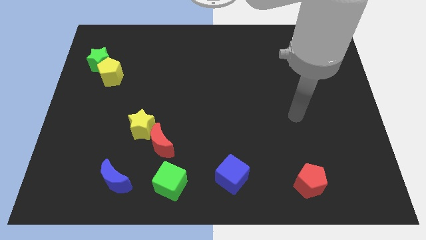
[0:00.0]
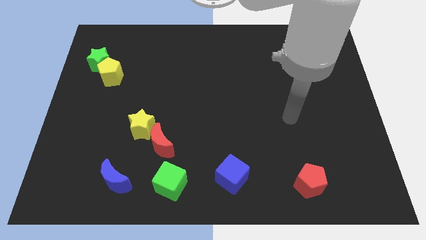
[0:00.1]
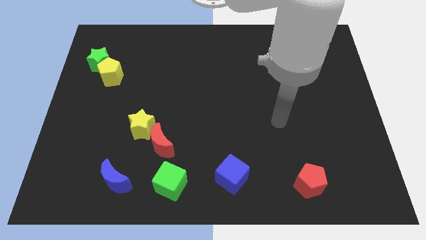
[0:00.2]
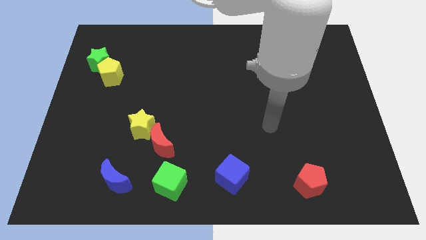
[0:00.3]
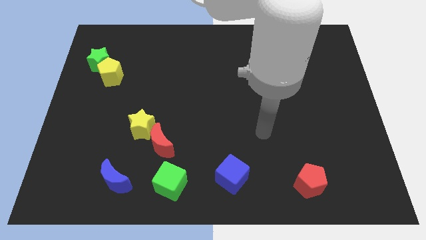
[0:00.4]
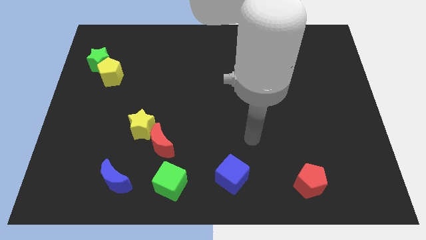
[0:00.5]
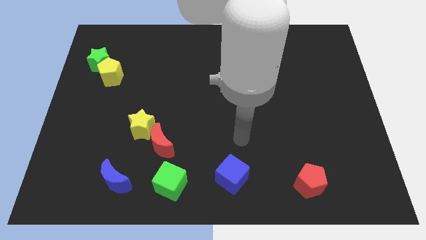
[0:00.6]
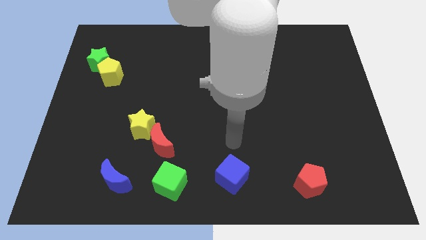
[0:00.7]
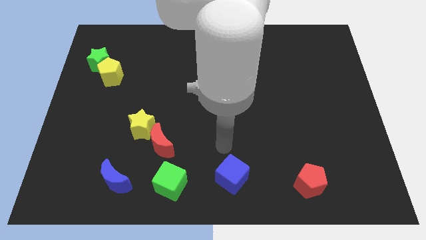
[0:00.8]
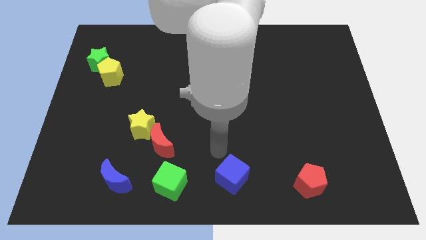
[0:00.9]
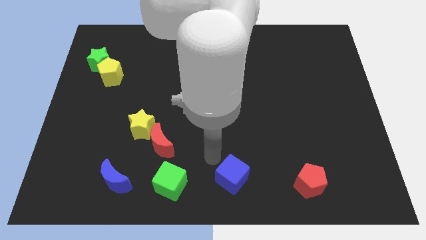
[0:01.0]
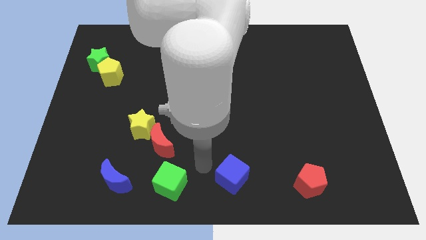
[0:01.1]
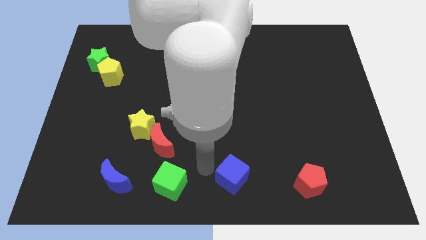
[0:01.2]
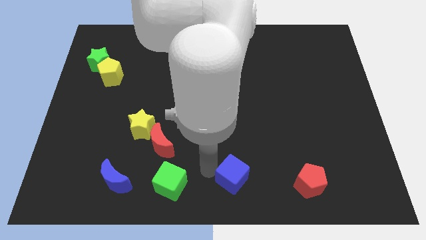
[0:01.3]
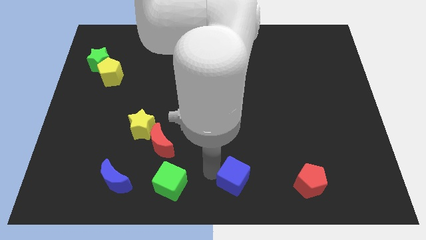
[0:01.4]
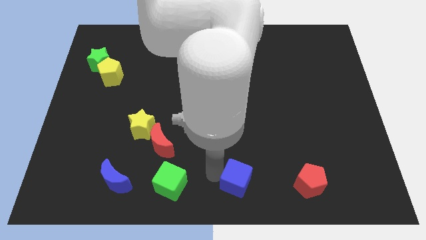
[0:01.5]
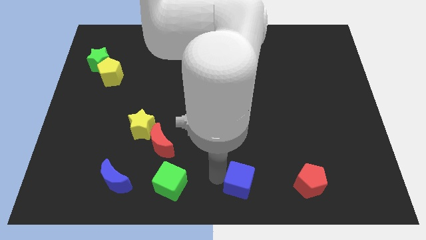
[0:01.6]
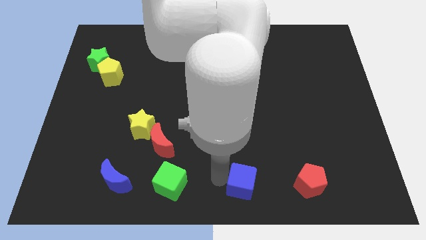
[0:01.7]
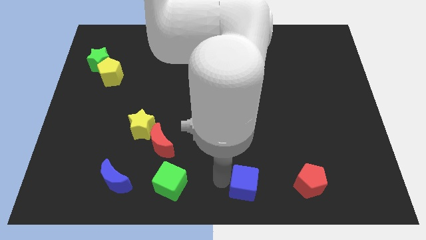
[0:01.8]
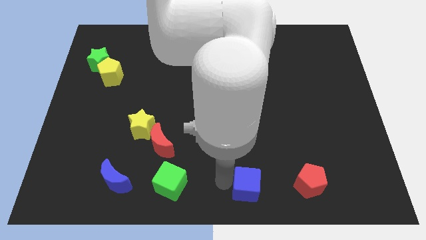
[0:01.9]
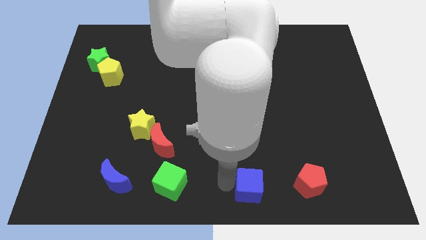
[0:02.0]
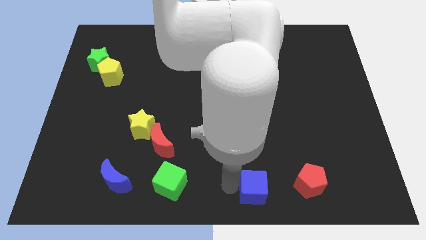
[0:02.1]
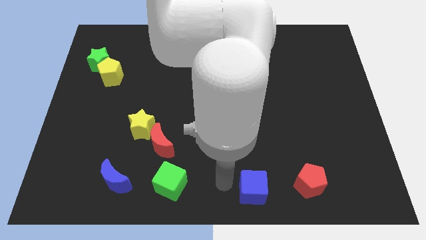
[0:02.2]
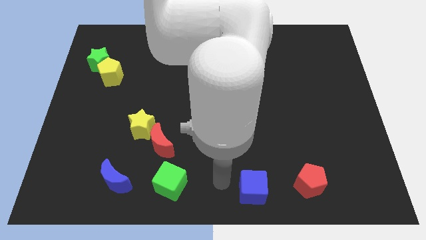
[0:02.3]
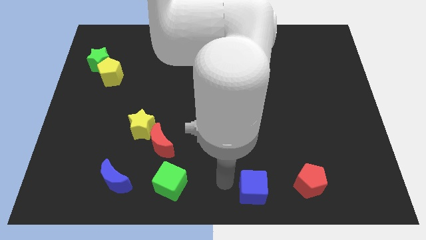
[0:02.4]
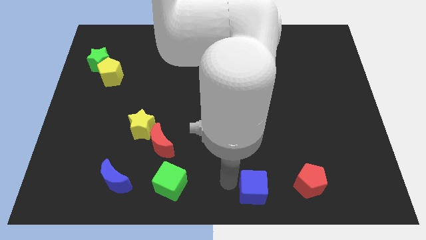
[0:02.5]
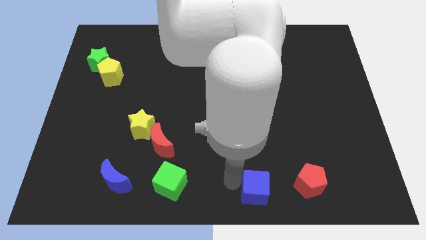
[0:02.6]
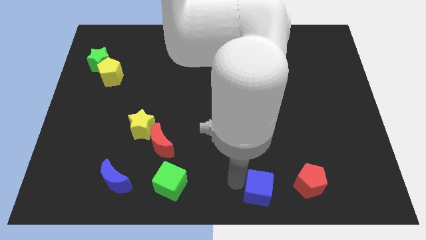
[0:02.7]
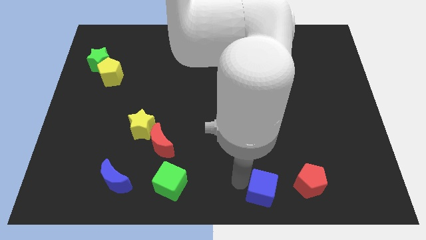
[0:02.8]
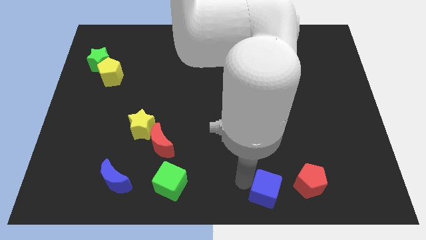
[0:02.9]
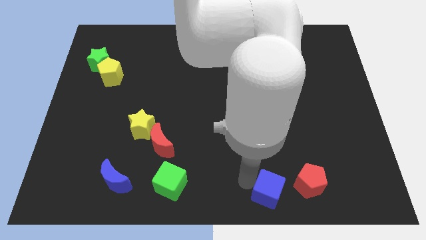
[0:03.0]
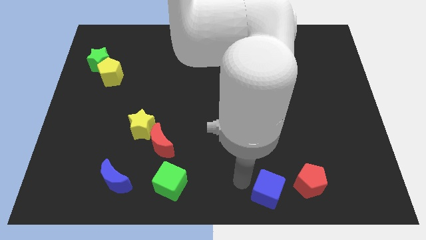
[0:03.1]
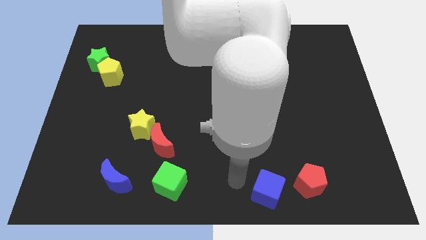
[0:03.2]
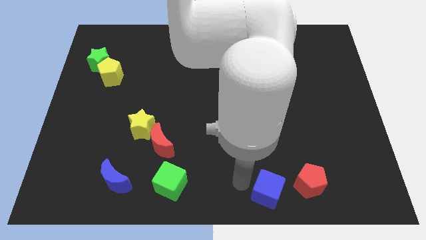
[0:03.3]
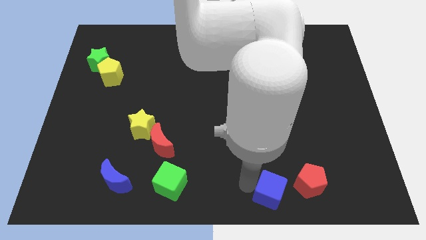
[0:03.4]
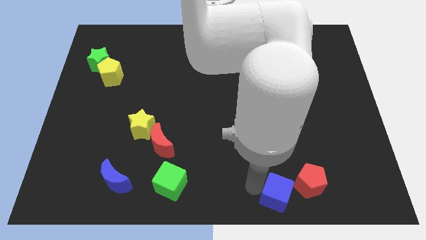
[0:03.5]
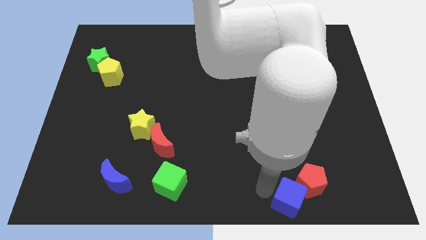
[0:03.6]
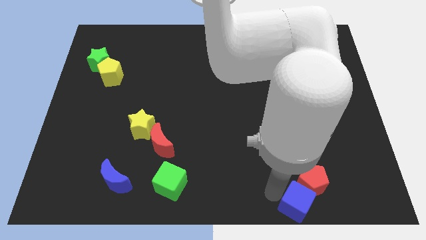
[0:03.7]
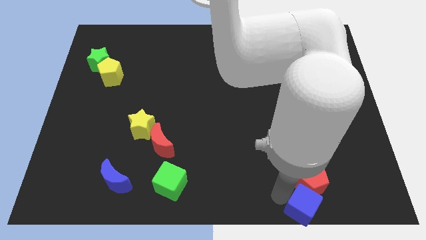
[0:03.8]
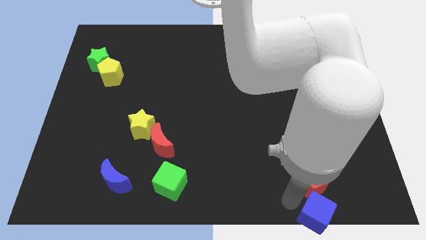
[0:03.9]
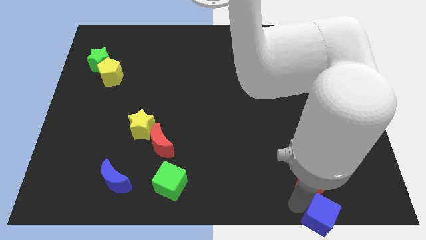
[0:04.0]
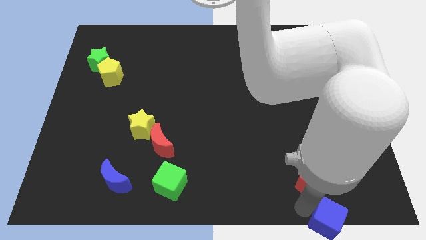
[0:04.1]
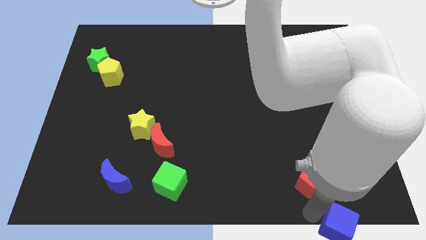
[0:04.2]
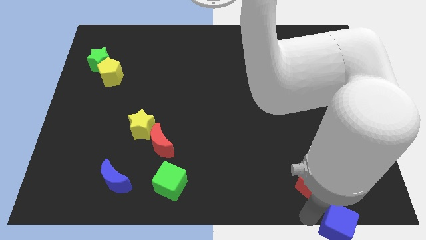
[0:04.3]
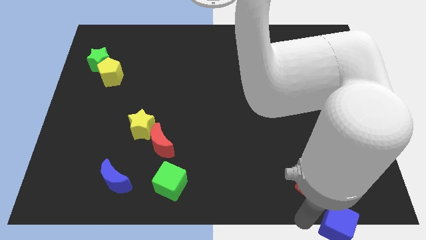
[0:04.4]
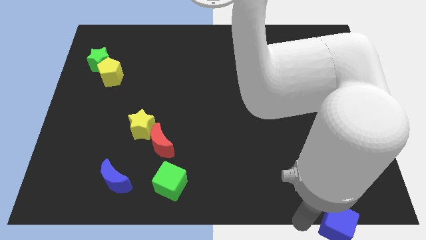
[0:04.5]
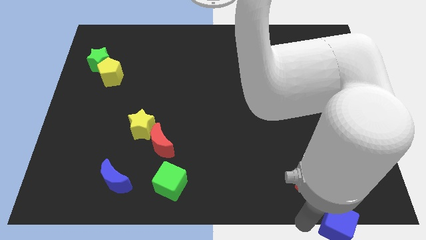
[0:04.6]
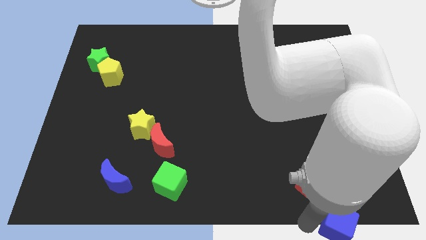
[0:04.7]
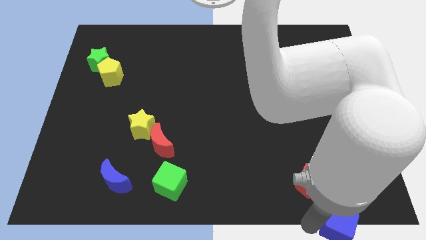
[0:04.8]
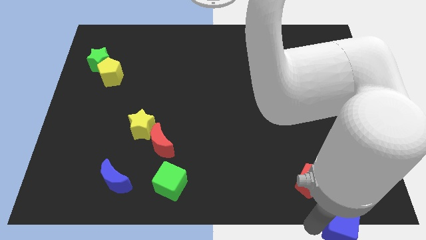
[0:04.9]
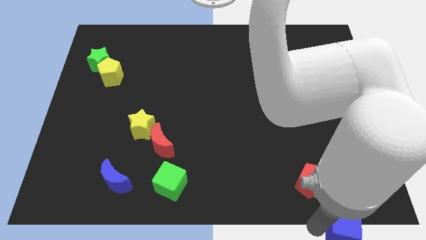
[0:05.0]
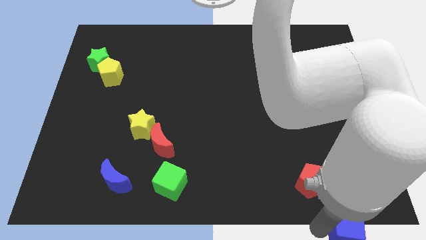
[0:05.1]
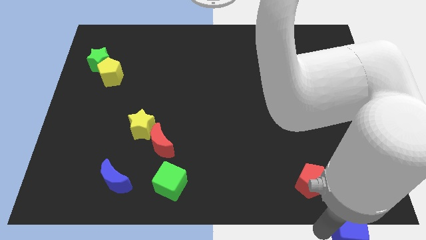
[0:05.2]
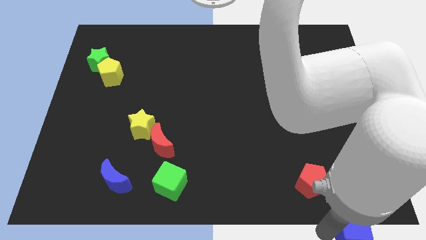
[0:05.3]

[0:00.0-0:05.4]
push the blue cube to the bottom right corner

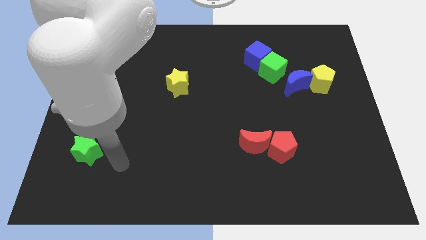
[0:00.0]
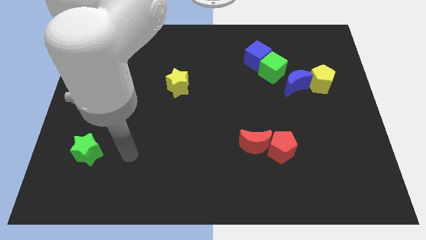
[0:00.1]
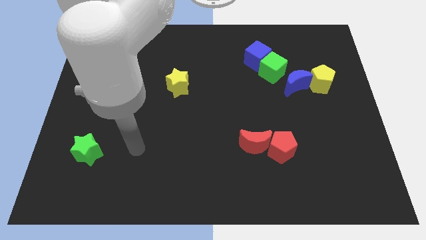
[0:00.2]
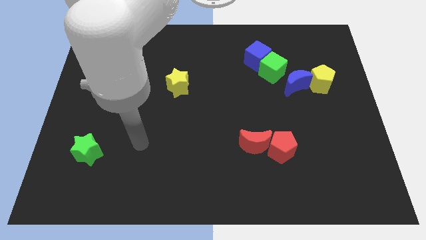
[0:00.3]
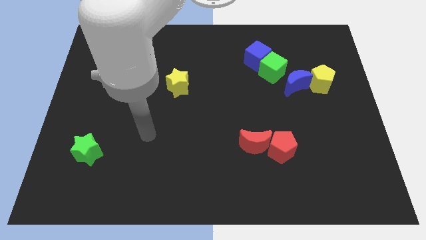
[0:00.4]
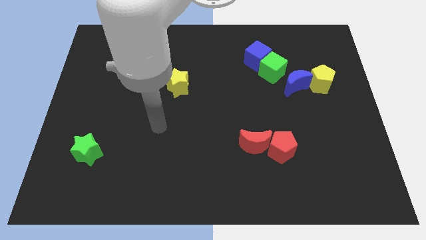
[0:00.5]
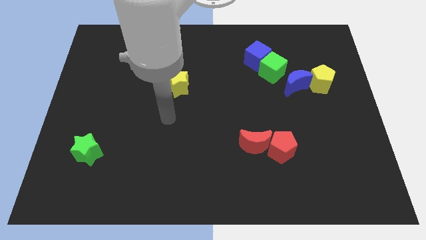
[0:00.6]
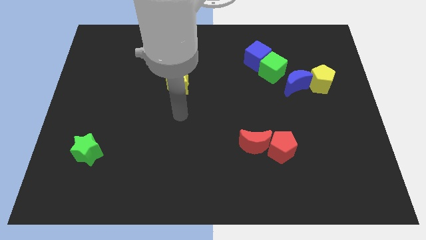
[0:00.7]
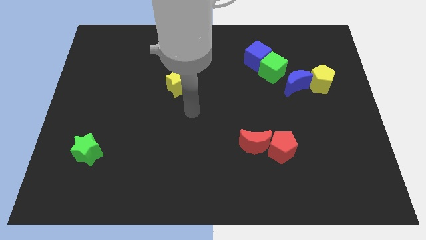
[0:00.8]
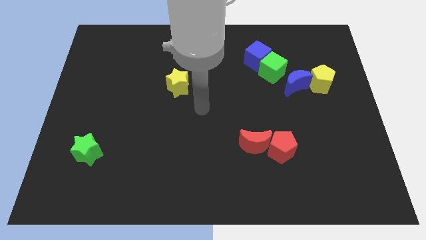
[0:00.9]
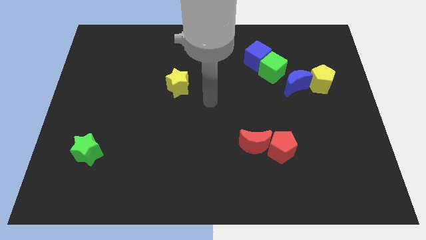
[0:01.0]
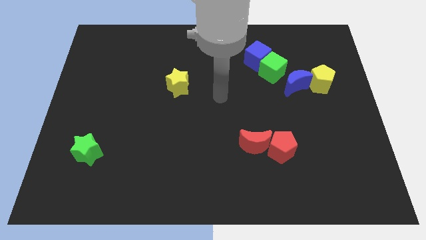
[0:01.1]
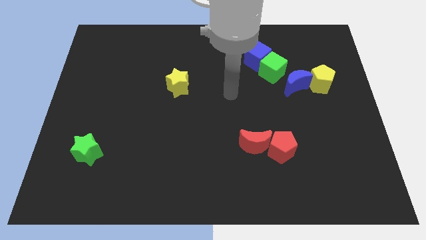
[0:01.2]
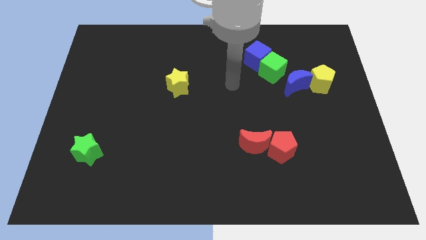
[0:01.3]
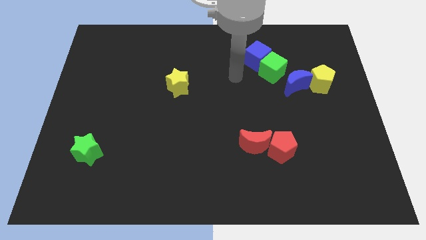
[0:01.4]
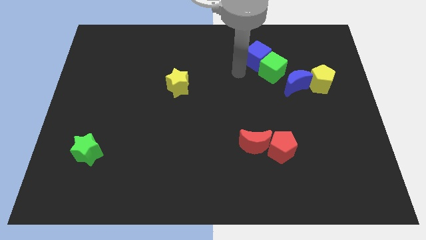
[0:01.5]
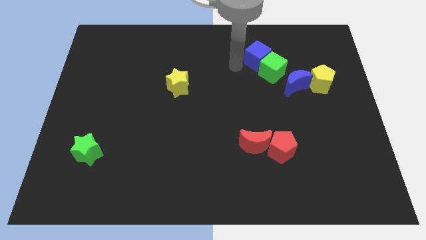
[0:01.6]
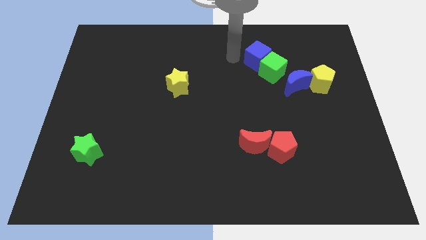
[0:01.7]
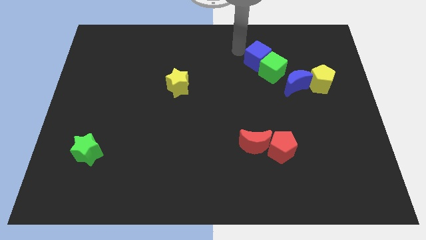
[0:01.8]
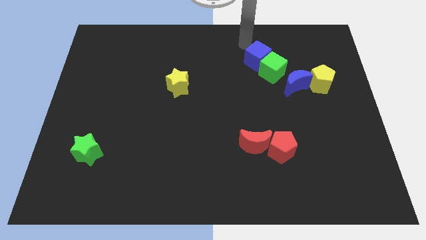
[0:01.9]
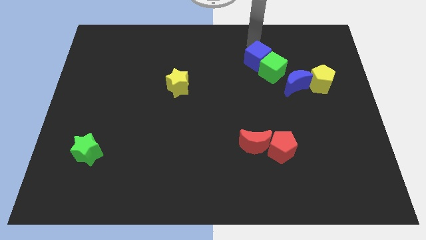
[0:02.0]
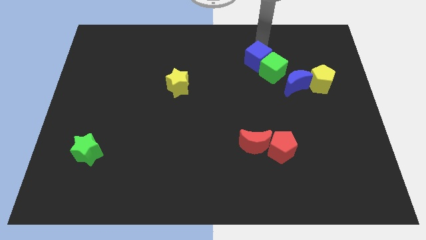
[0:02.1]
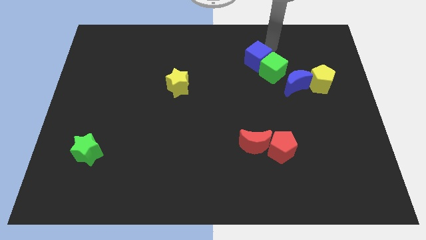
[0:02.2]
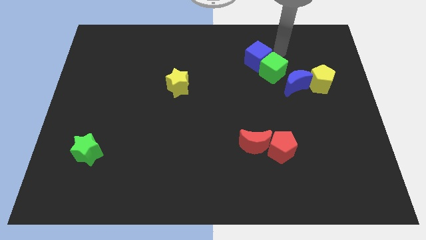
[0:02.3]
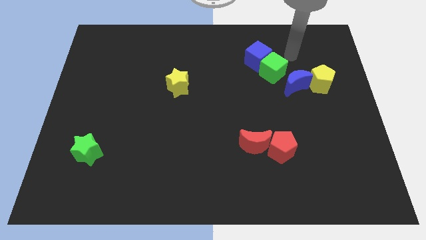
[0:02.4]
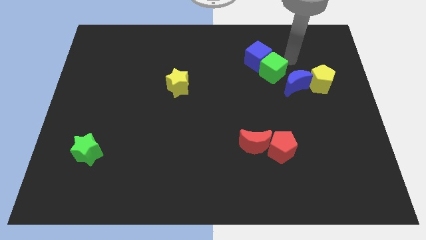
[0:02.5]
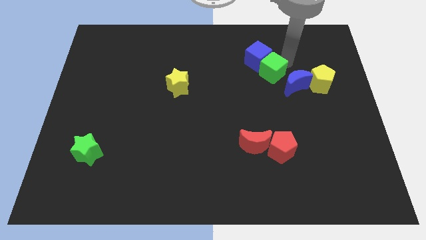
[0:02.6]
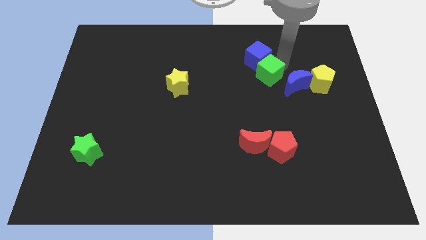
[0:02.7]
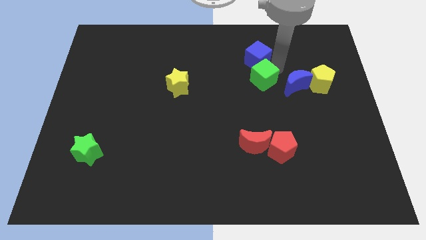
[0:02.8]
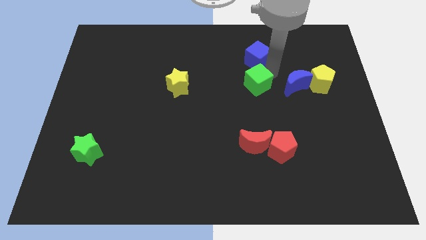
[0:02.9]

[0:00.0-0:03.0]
put the green cube to the center
